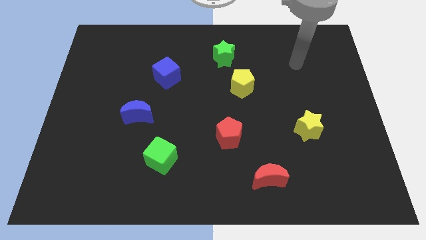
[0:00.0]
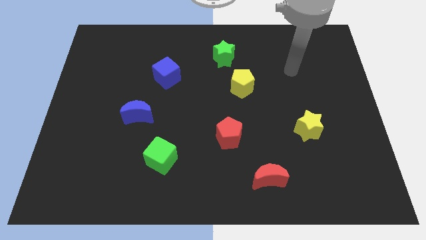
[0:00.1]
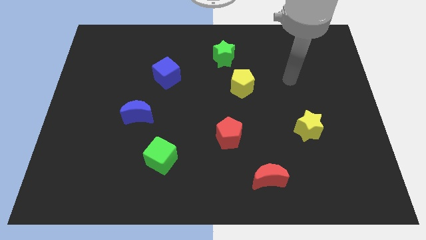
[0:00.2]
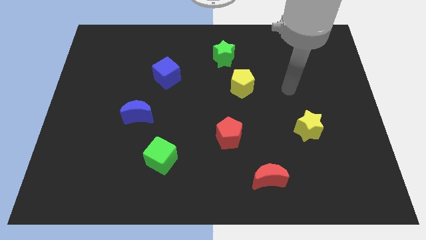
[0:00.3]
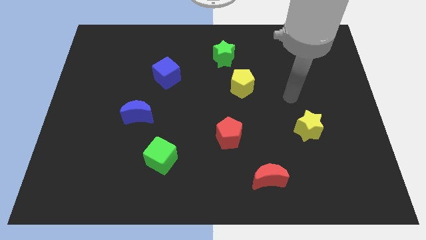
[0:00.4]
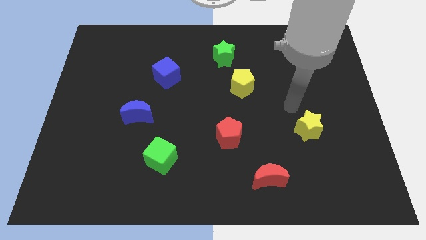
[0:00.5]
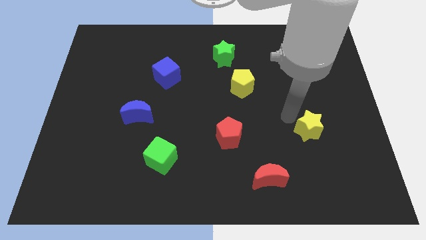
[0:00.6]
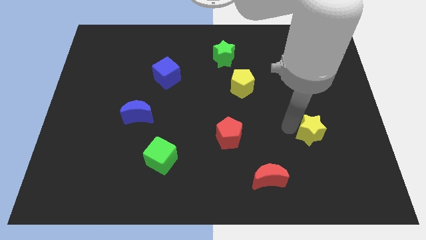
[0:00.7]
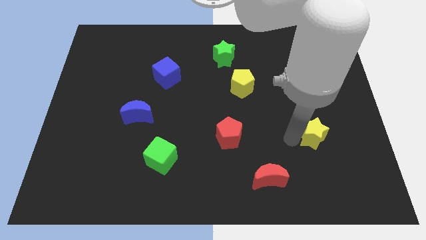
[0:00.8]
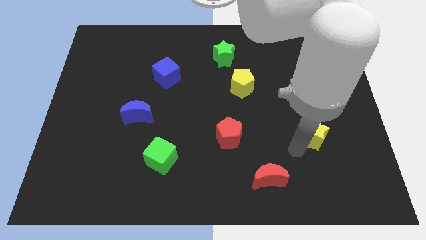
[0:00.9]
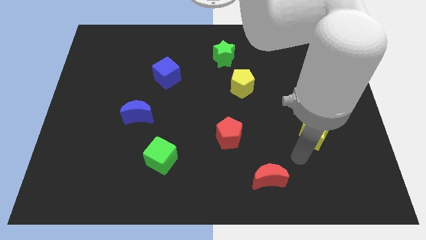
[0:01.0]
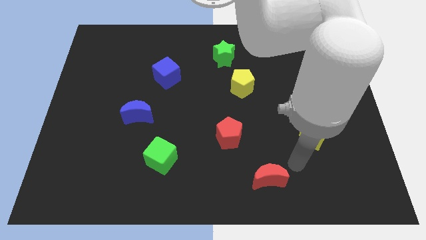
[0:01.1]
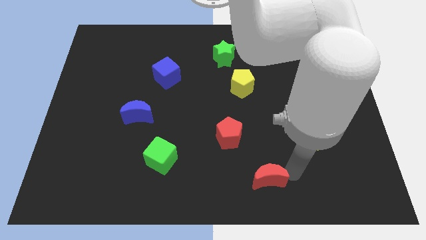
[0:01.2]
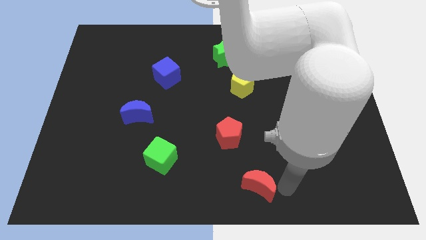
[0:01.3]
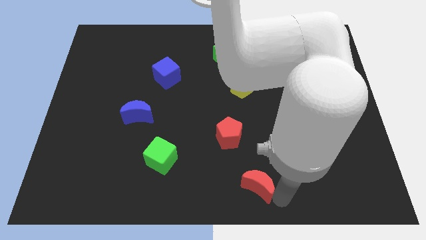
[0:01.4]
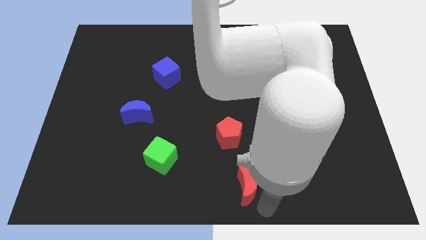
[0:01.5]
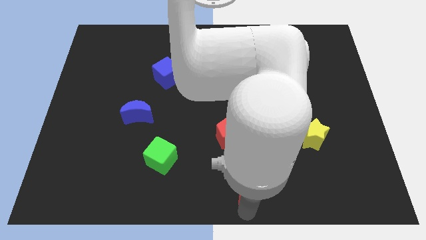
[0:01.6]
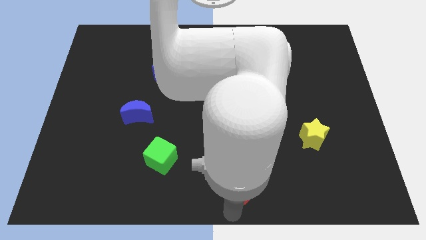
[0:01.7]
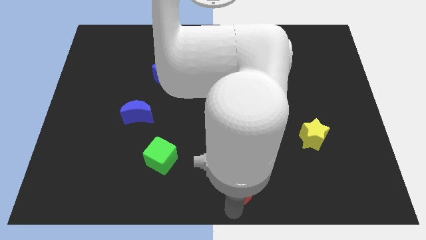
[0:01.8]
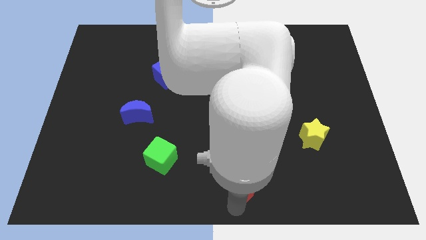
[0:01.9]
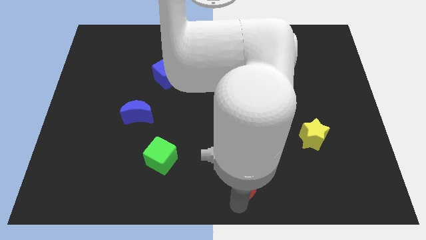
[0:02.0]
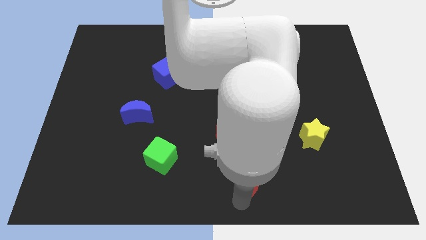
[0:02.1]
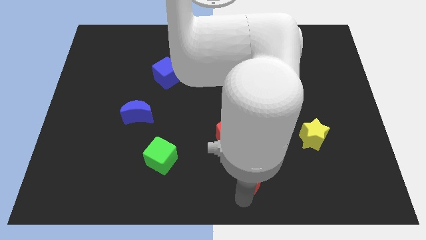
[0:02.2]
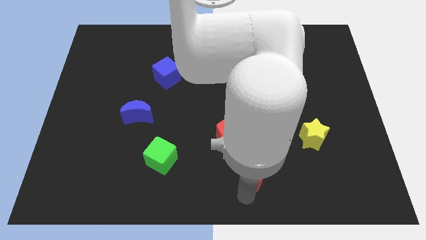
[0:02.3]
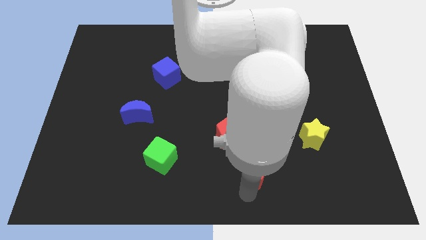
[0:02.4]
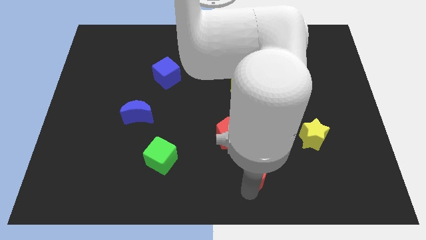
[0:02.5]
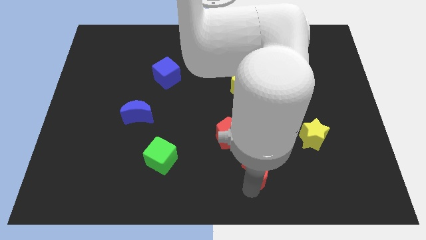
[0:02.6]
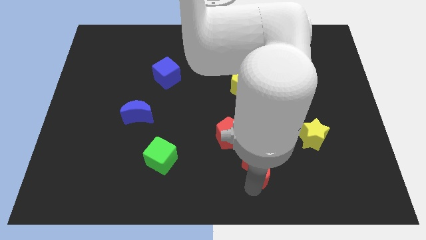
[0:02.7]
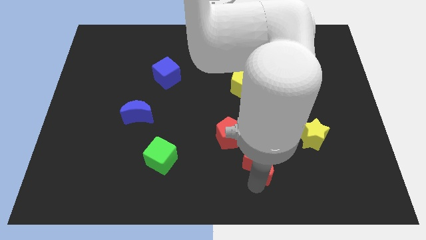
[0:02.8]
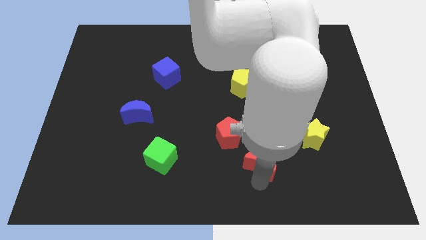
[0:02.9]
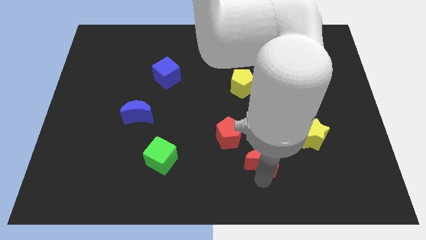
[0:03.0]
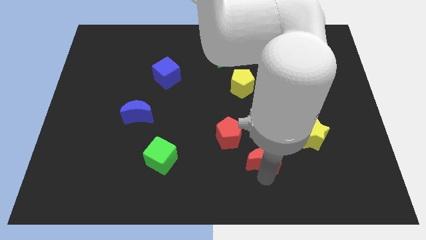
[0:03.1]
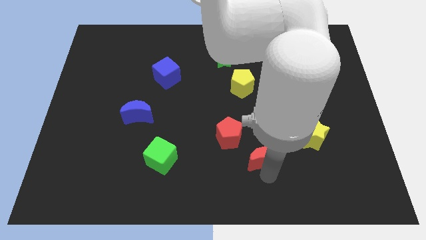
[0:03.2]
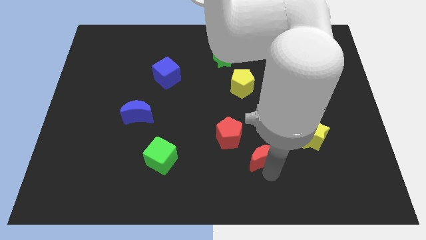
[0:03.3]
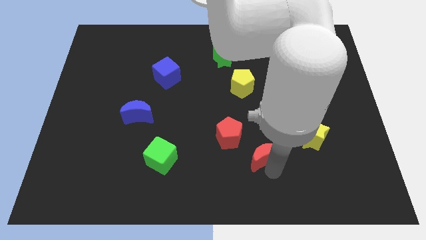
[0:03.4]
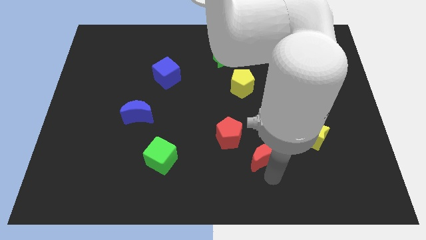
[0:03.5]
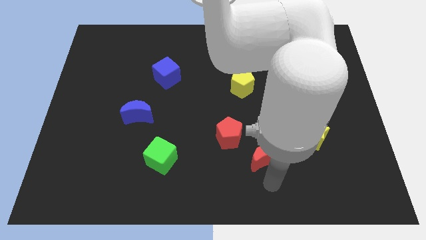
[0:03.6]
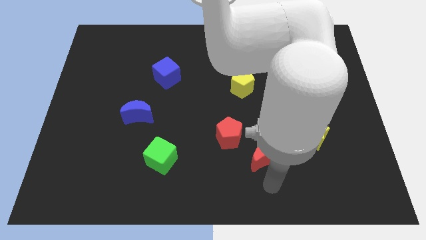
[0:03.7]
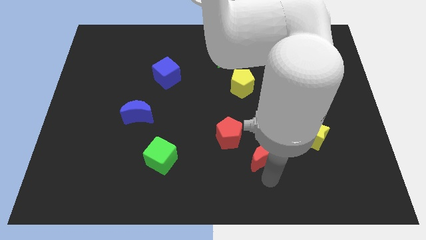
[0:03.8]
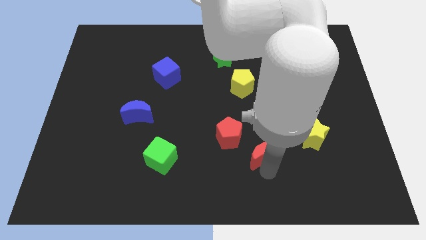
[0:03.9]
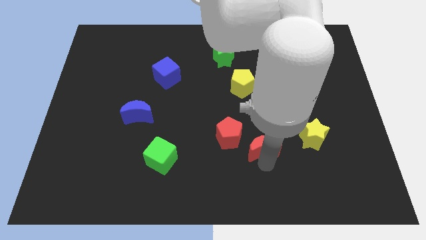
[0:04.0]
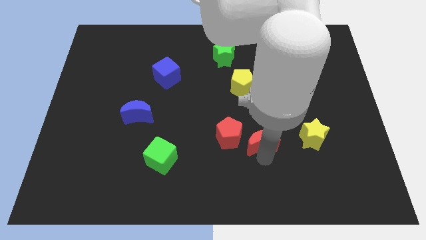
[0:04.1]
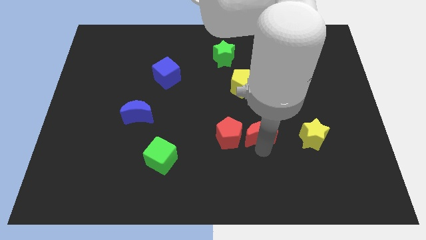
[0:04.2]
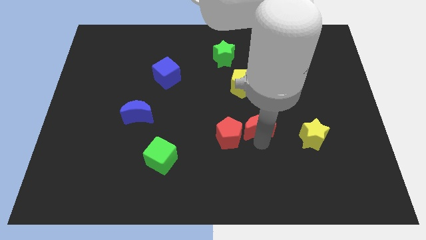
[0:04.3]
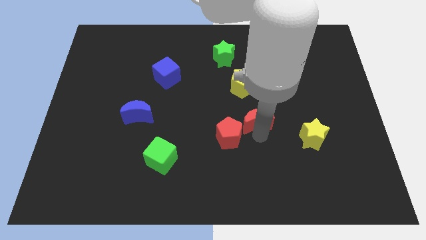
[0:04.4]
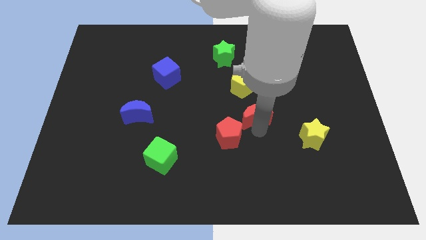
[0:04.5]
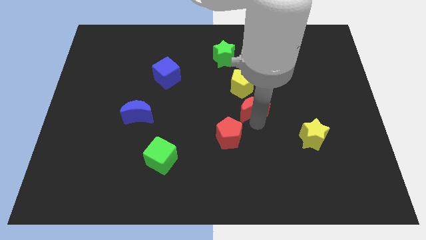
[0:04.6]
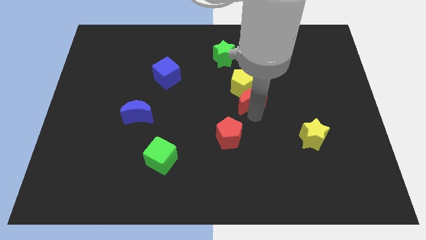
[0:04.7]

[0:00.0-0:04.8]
slide the red moon next to the yellow pentagon

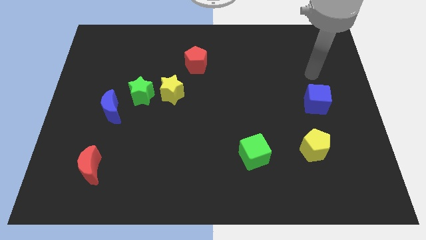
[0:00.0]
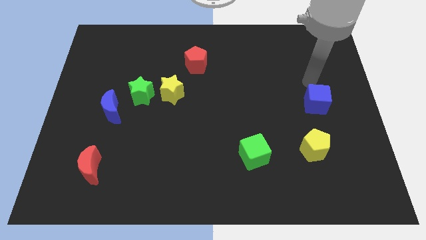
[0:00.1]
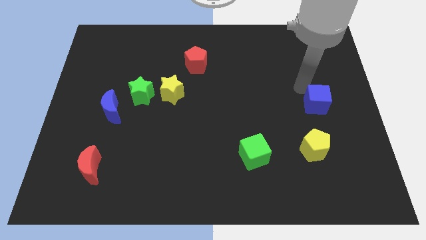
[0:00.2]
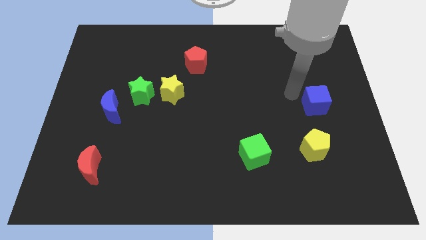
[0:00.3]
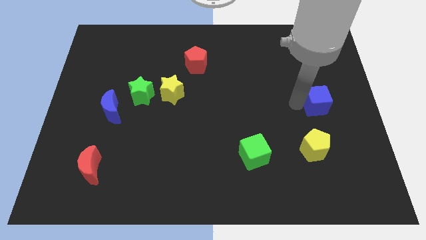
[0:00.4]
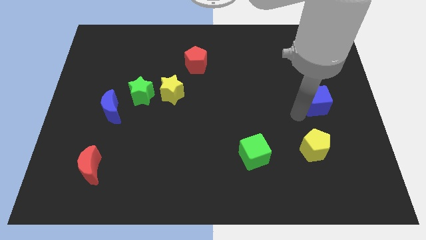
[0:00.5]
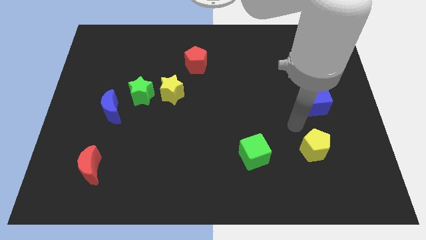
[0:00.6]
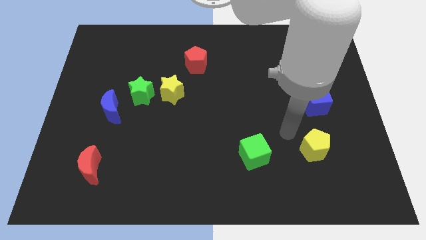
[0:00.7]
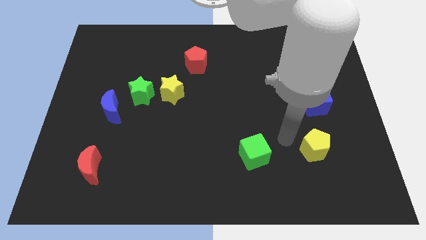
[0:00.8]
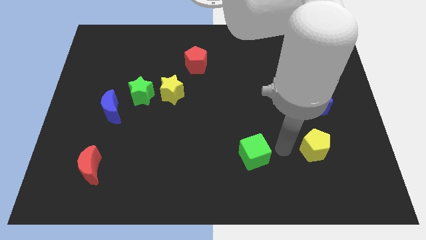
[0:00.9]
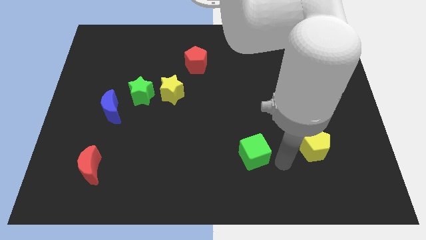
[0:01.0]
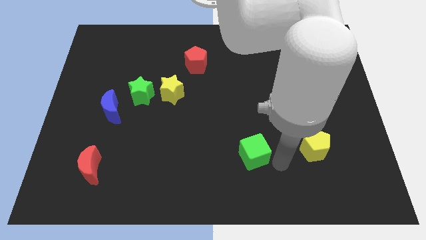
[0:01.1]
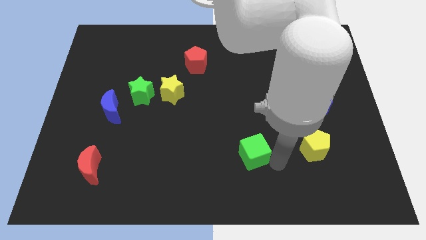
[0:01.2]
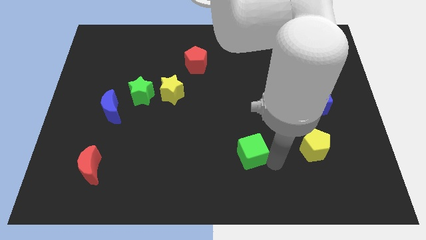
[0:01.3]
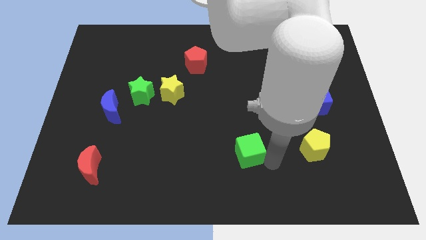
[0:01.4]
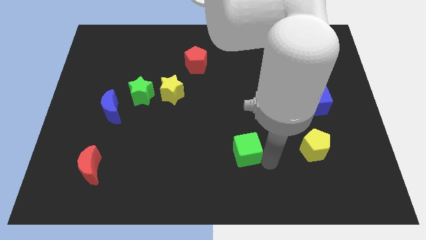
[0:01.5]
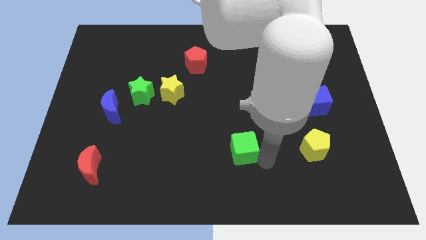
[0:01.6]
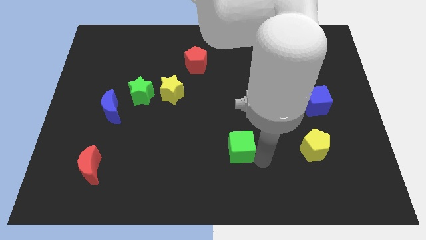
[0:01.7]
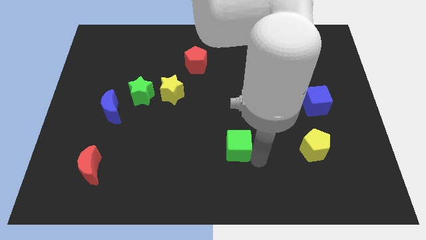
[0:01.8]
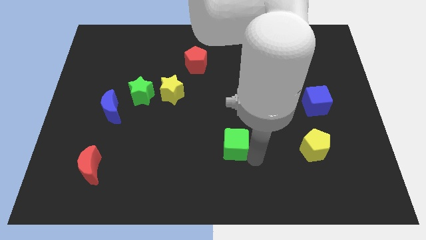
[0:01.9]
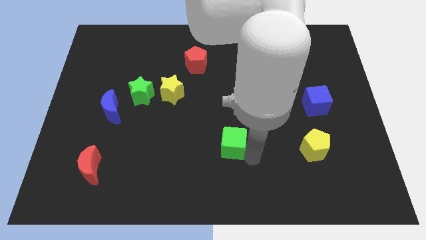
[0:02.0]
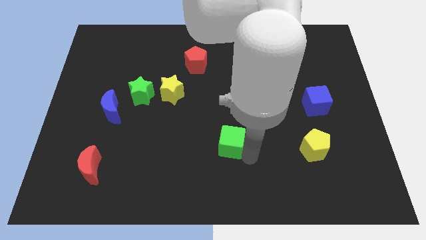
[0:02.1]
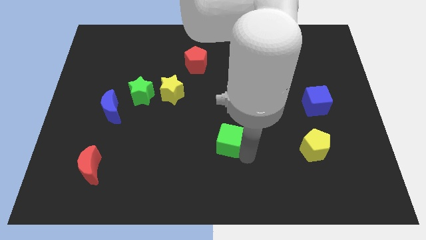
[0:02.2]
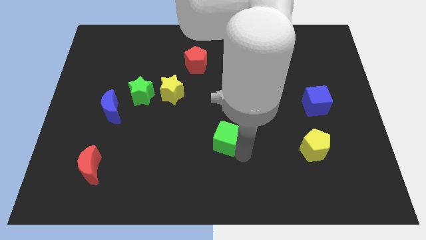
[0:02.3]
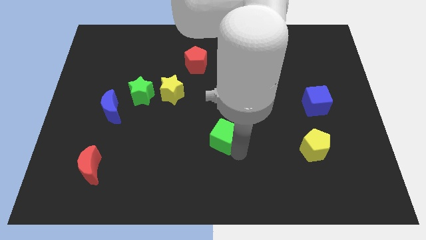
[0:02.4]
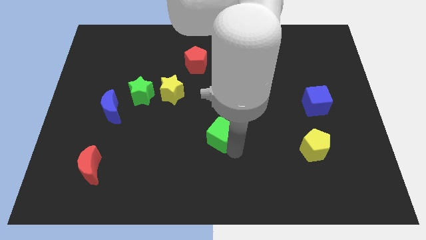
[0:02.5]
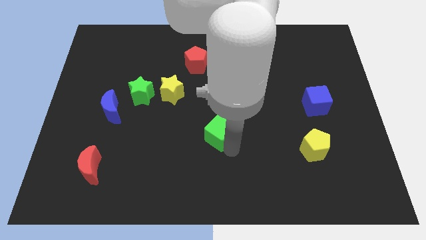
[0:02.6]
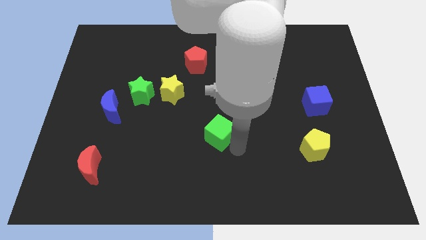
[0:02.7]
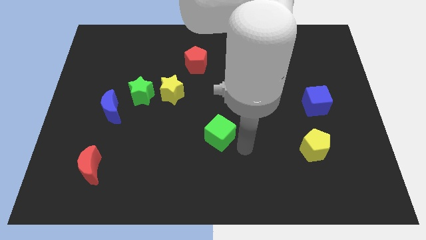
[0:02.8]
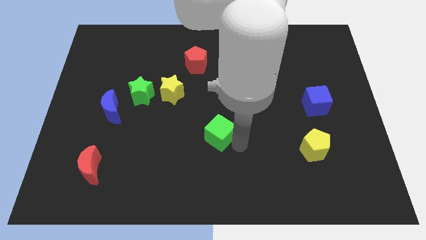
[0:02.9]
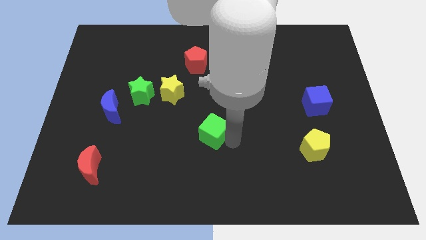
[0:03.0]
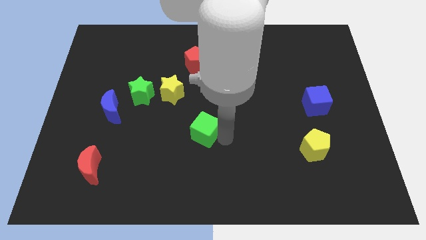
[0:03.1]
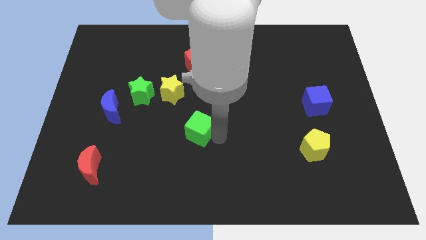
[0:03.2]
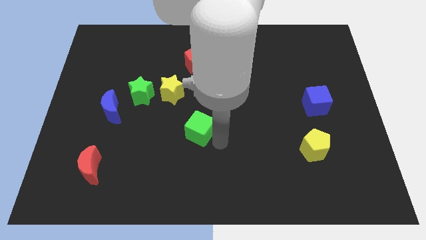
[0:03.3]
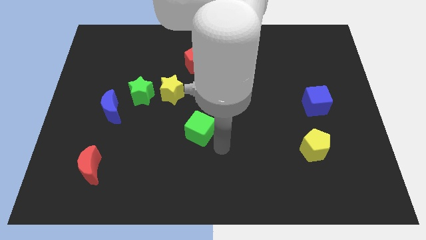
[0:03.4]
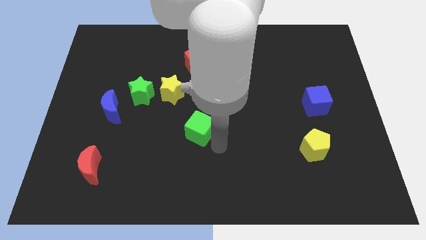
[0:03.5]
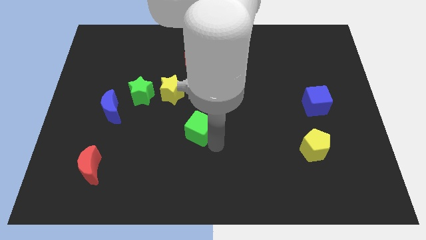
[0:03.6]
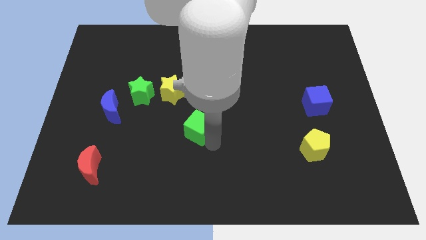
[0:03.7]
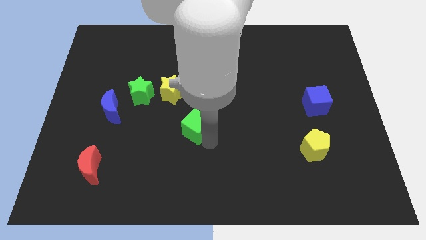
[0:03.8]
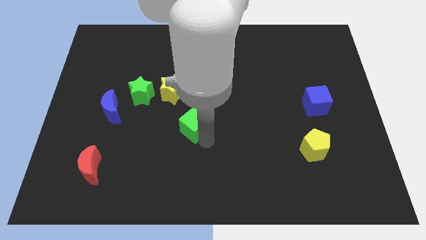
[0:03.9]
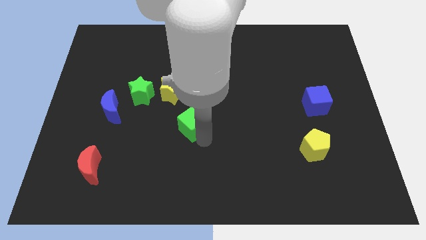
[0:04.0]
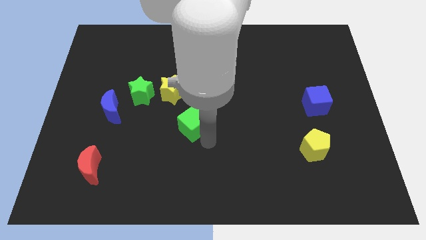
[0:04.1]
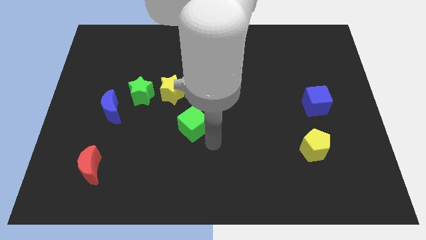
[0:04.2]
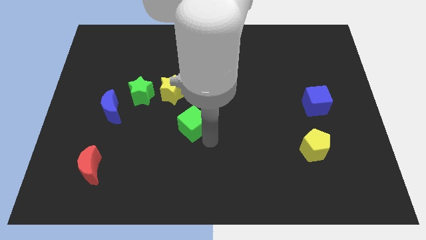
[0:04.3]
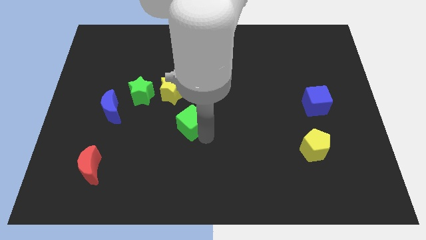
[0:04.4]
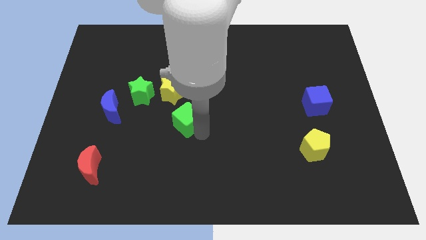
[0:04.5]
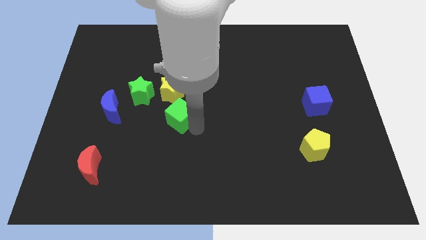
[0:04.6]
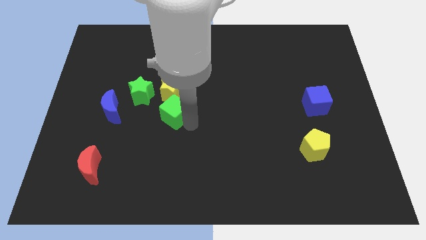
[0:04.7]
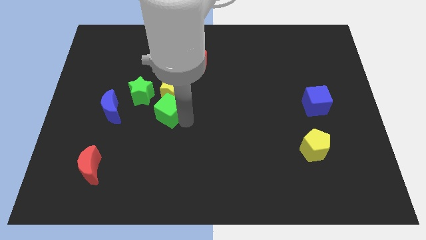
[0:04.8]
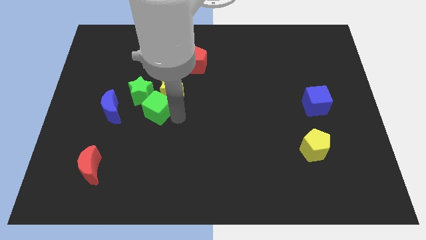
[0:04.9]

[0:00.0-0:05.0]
slide the green cube towards the green star
